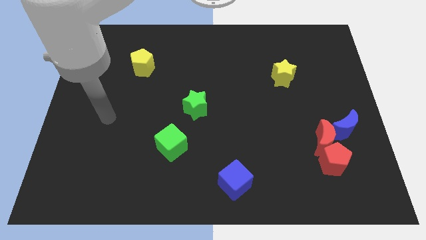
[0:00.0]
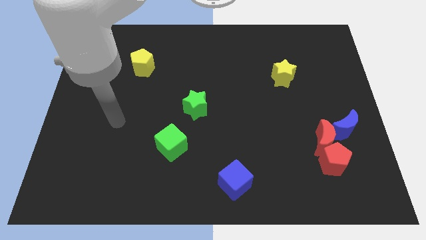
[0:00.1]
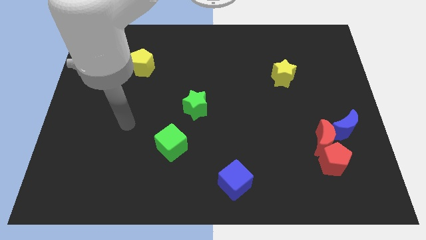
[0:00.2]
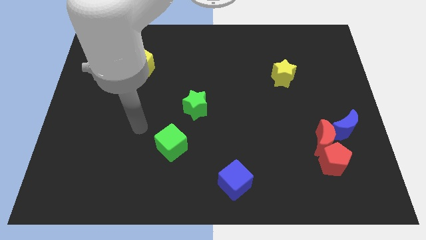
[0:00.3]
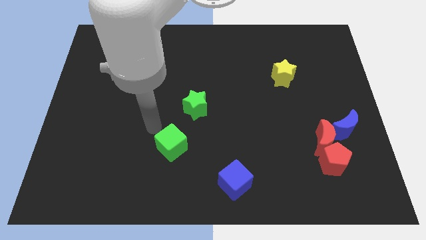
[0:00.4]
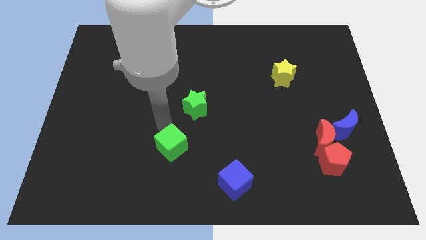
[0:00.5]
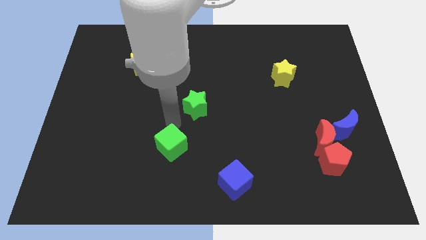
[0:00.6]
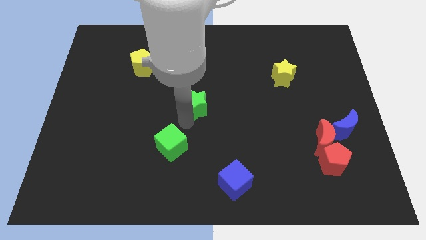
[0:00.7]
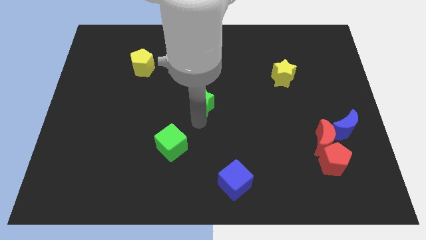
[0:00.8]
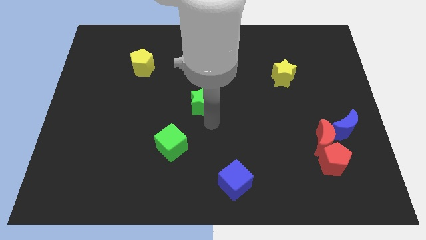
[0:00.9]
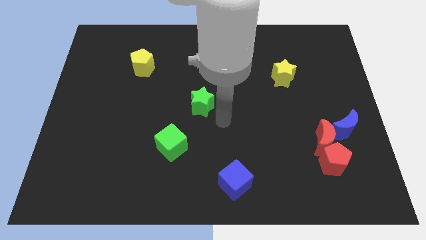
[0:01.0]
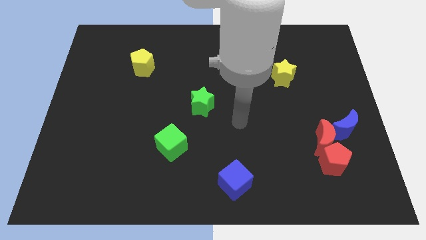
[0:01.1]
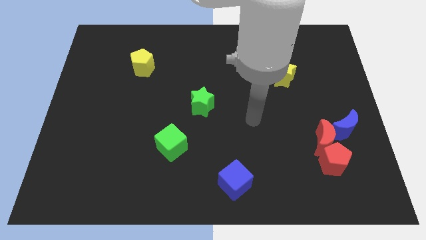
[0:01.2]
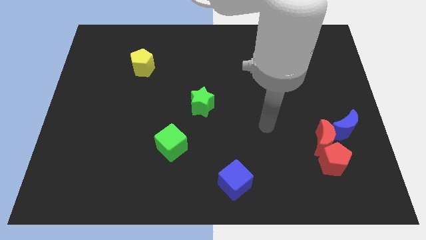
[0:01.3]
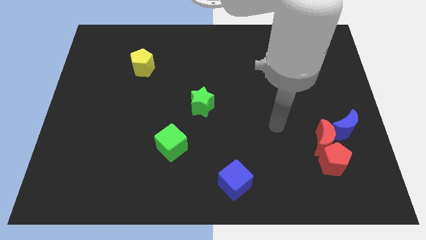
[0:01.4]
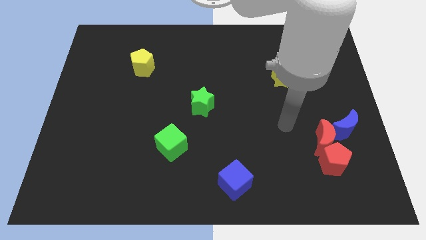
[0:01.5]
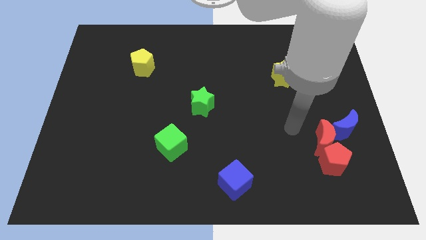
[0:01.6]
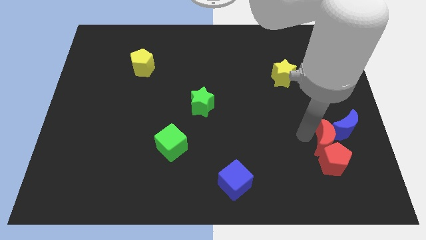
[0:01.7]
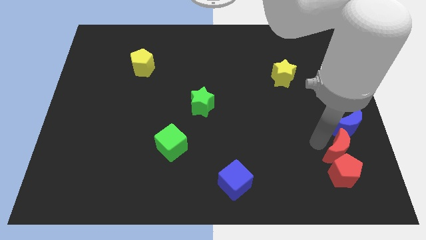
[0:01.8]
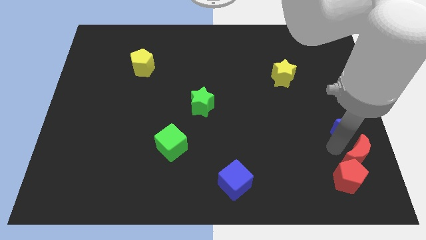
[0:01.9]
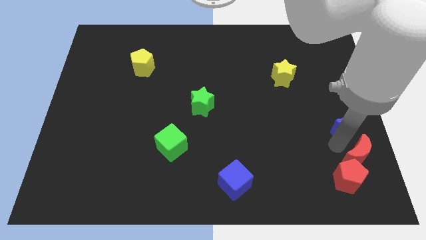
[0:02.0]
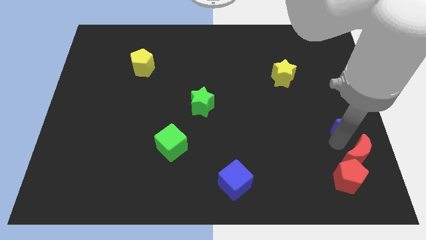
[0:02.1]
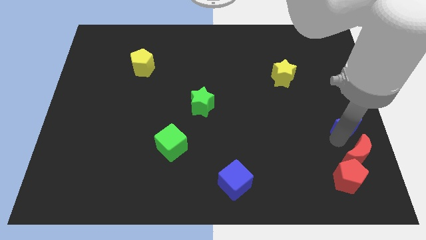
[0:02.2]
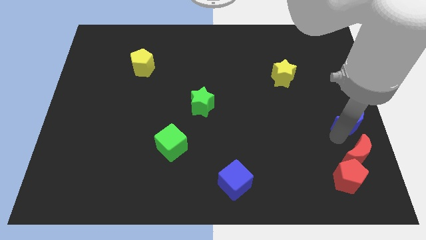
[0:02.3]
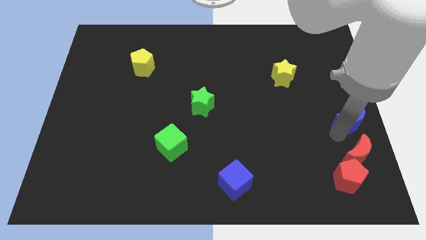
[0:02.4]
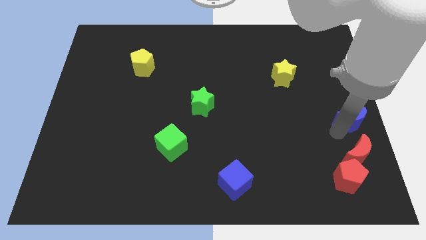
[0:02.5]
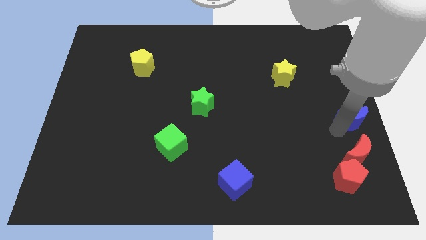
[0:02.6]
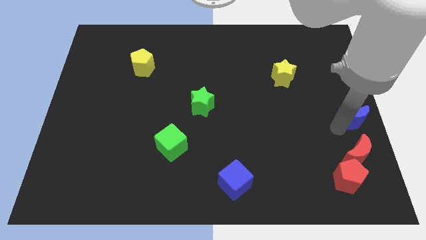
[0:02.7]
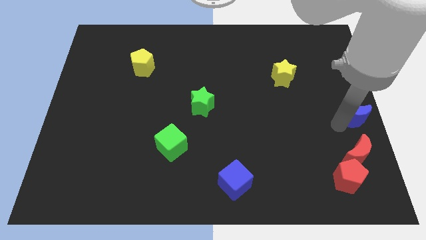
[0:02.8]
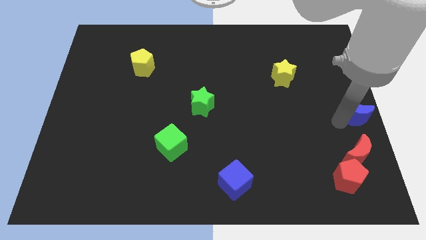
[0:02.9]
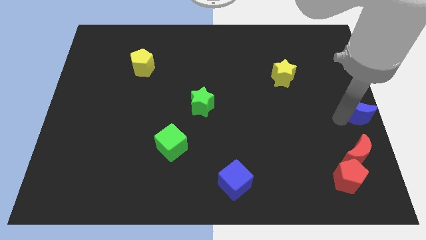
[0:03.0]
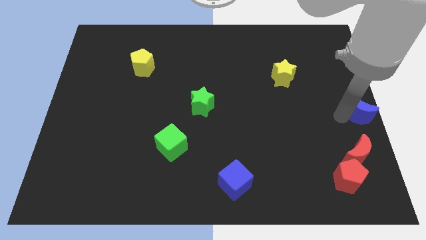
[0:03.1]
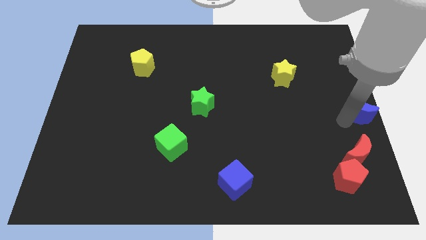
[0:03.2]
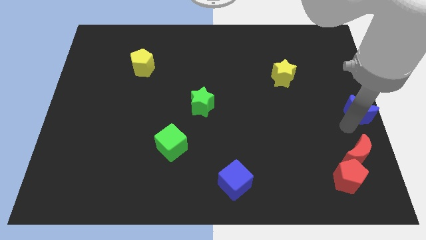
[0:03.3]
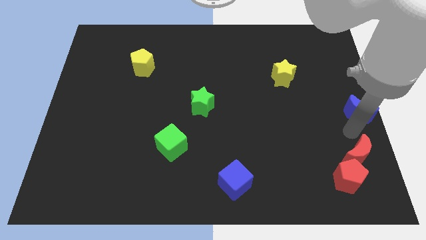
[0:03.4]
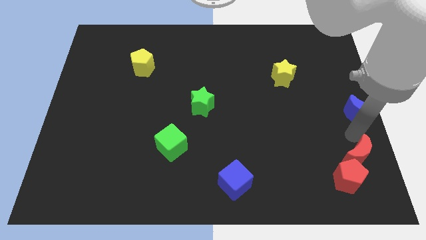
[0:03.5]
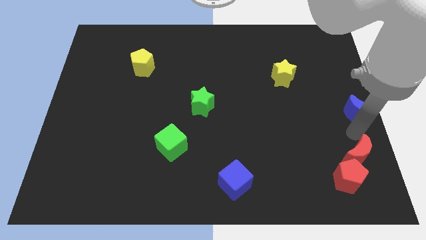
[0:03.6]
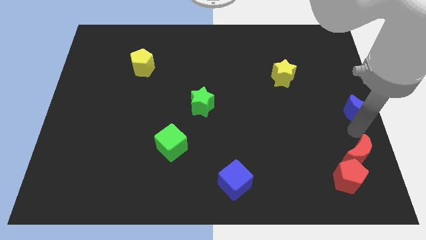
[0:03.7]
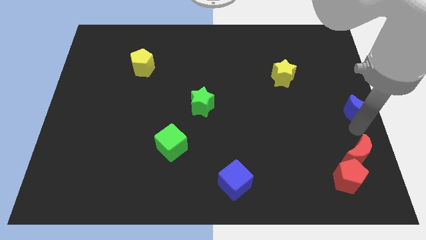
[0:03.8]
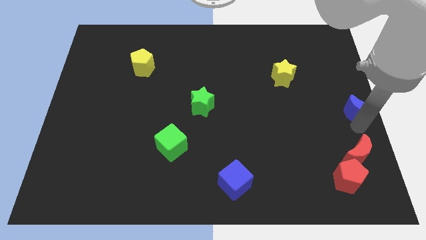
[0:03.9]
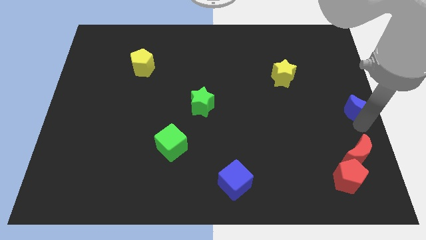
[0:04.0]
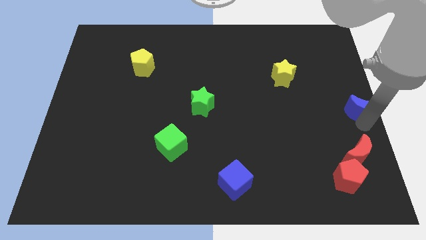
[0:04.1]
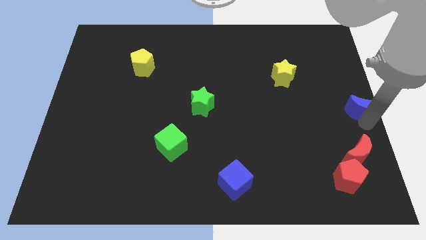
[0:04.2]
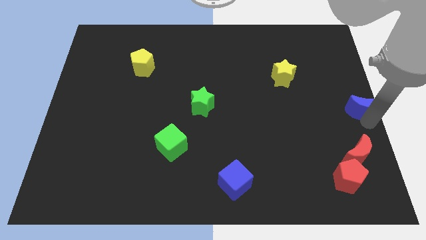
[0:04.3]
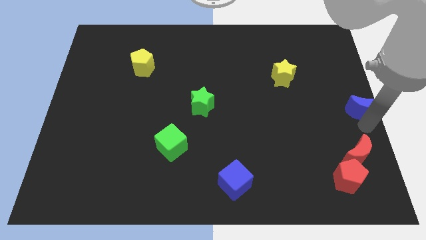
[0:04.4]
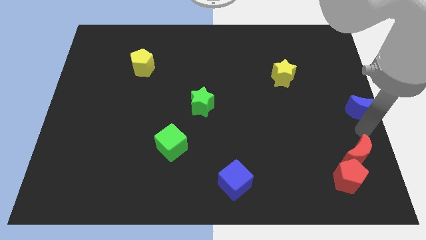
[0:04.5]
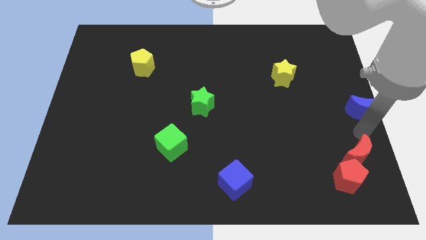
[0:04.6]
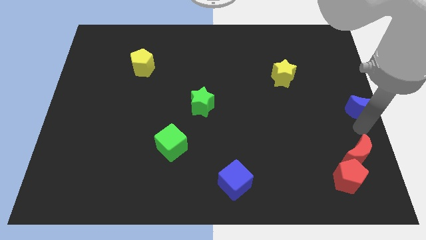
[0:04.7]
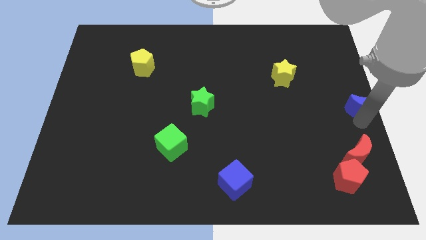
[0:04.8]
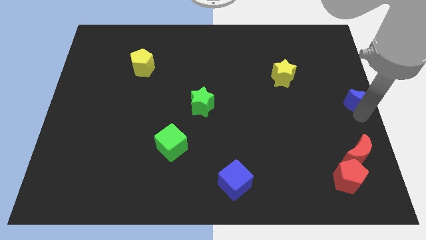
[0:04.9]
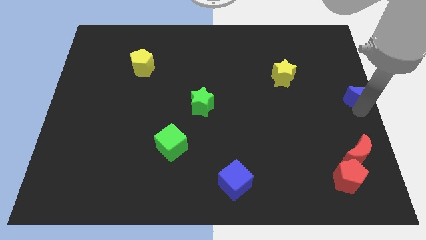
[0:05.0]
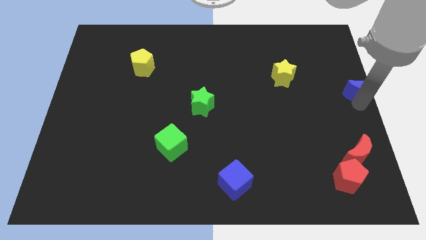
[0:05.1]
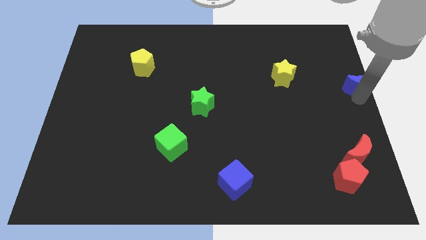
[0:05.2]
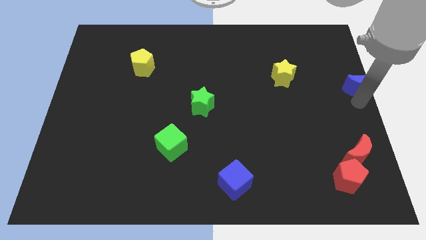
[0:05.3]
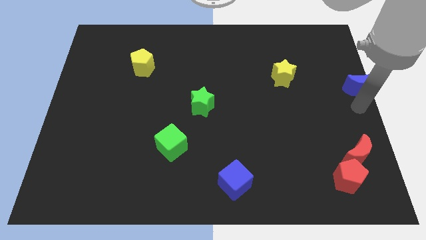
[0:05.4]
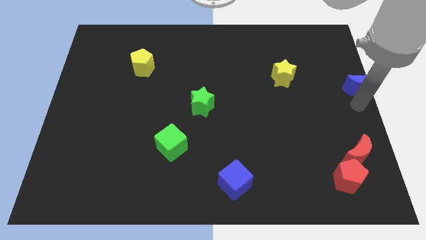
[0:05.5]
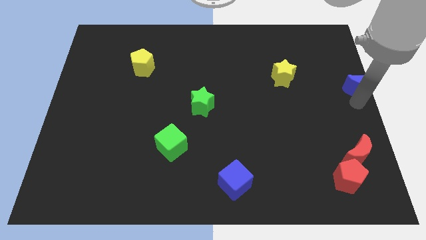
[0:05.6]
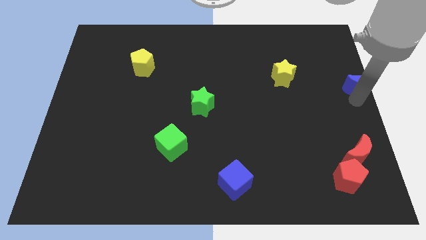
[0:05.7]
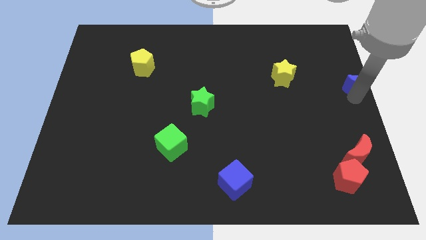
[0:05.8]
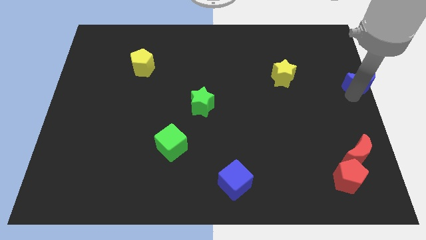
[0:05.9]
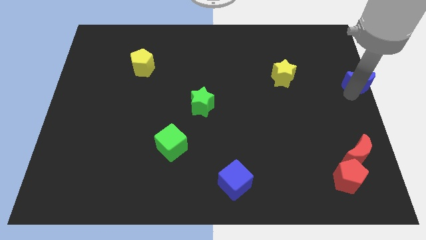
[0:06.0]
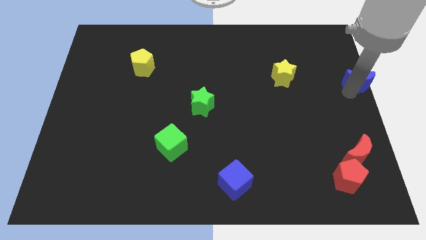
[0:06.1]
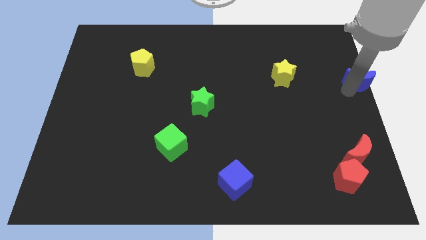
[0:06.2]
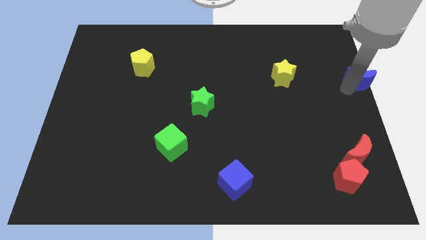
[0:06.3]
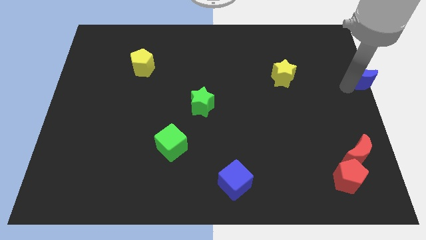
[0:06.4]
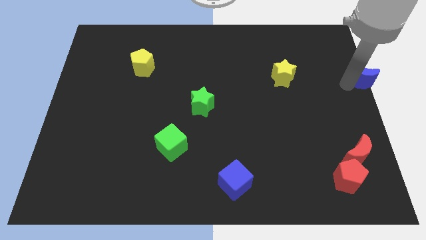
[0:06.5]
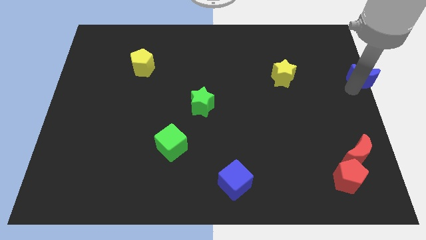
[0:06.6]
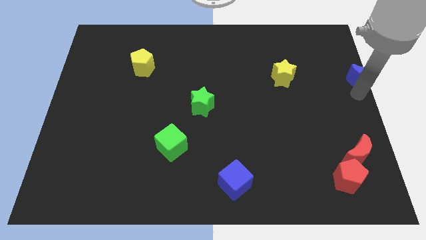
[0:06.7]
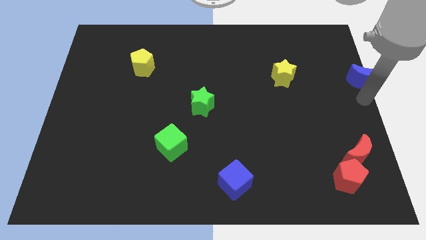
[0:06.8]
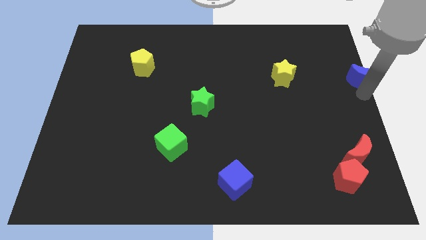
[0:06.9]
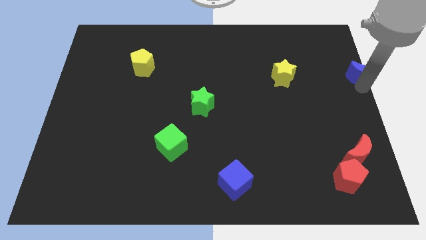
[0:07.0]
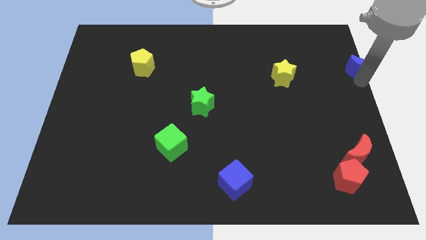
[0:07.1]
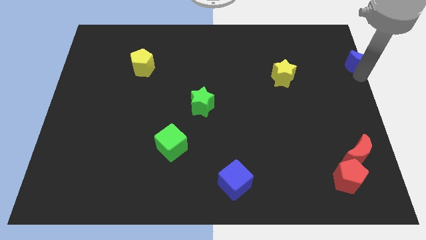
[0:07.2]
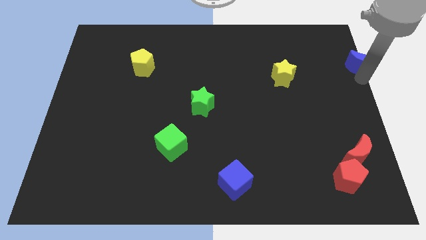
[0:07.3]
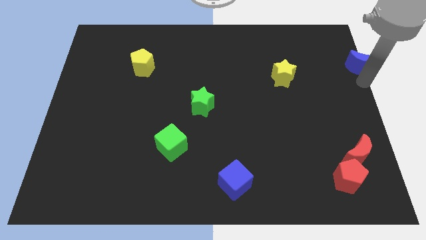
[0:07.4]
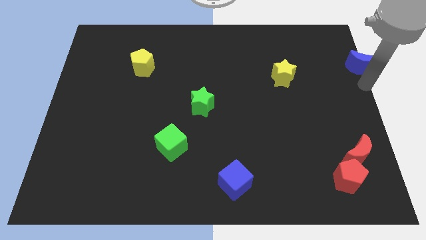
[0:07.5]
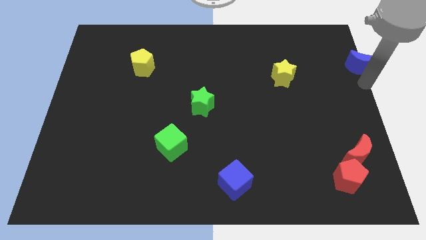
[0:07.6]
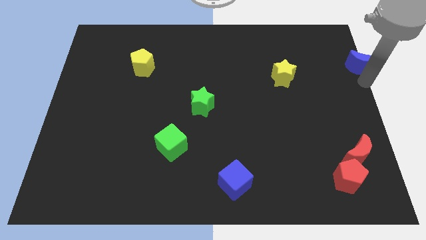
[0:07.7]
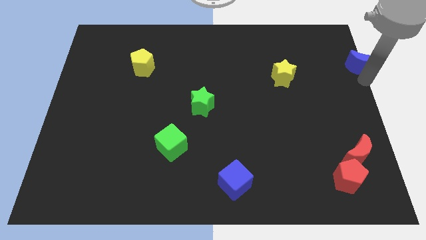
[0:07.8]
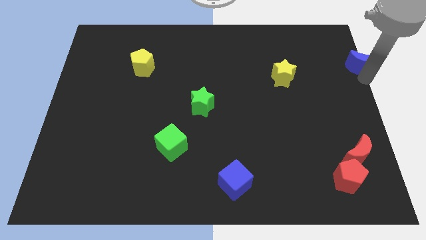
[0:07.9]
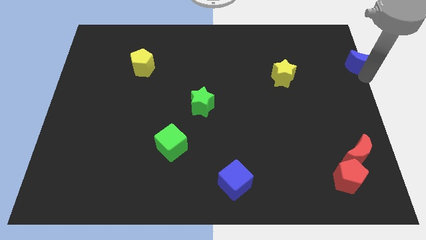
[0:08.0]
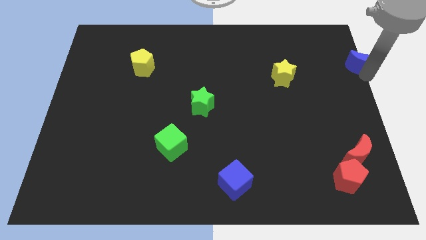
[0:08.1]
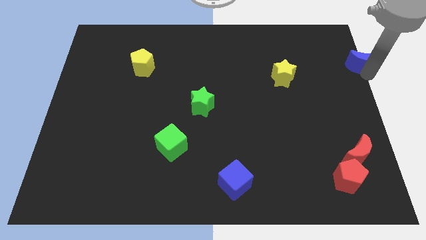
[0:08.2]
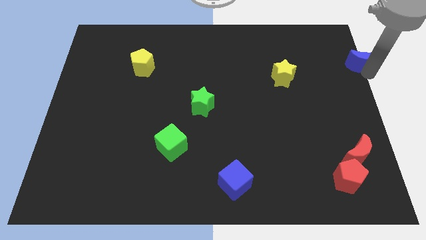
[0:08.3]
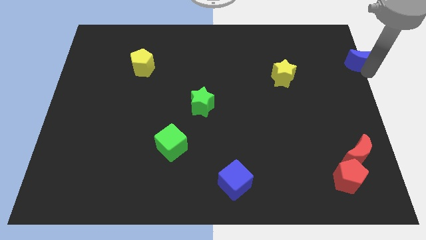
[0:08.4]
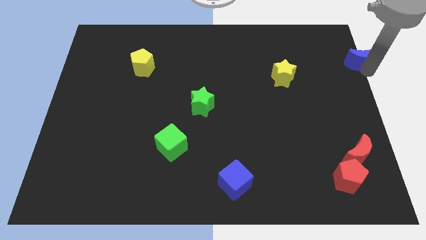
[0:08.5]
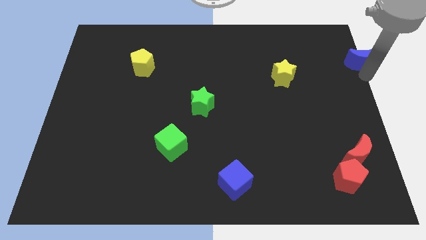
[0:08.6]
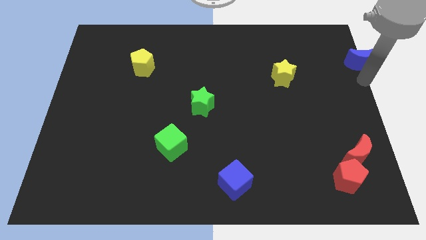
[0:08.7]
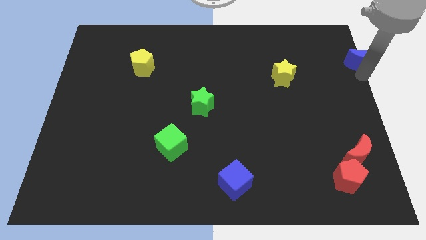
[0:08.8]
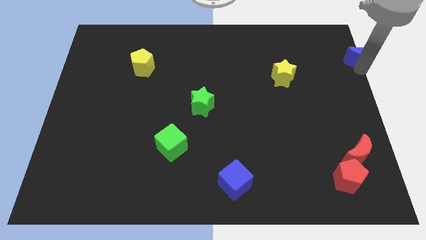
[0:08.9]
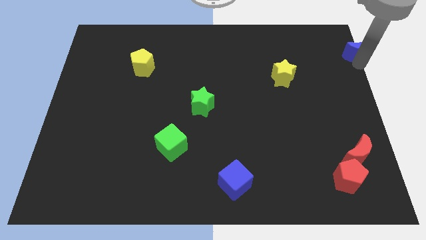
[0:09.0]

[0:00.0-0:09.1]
push the blue moon to the top right of the board
